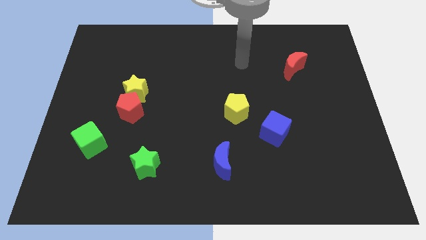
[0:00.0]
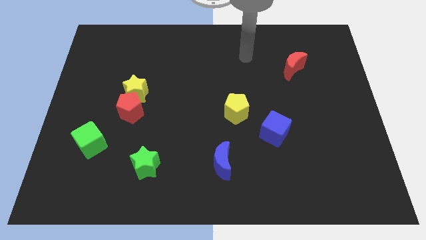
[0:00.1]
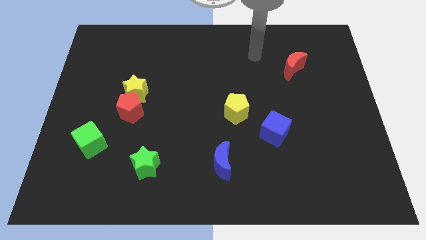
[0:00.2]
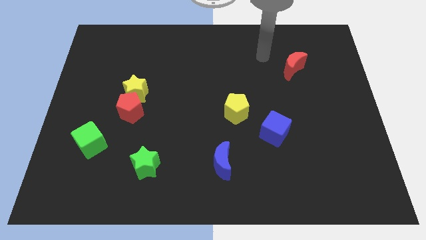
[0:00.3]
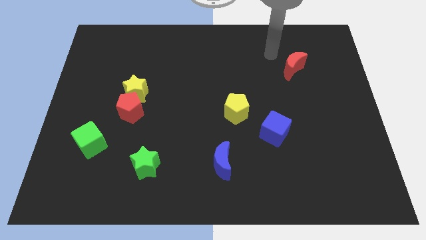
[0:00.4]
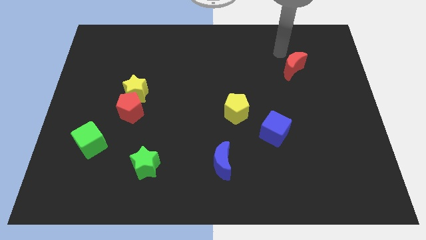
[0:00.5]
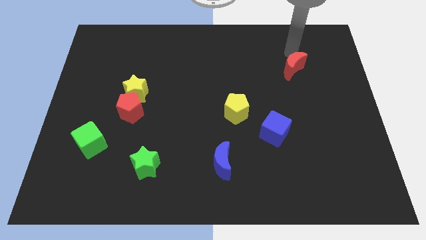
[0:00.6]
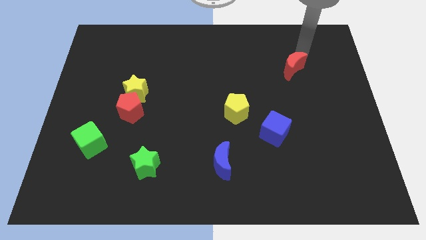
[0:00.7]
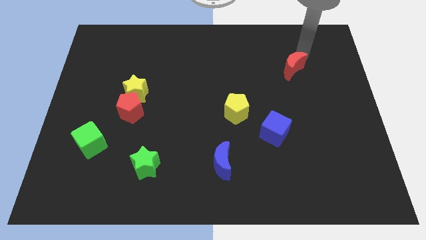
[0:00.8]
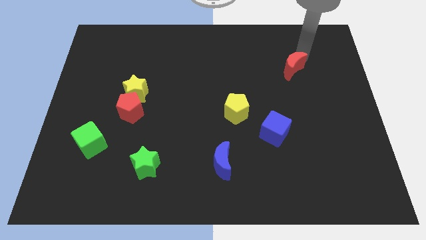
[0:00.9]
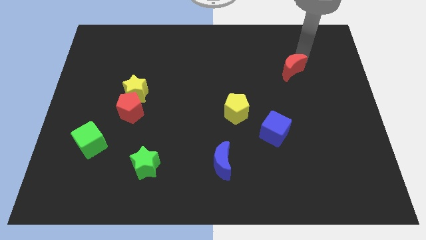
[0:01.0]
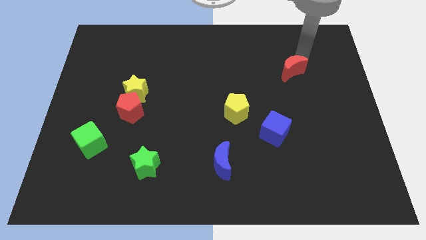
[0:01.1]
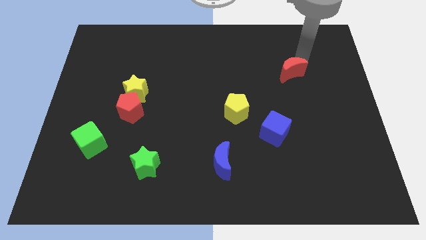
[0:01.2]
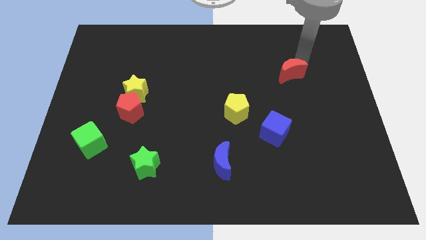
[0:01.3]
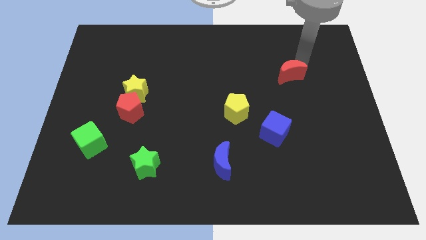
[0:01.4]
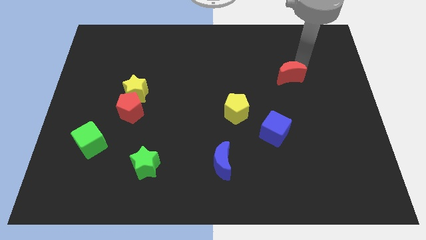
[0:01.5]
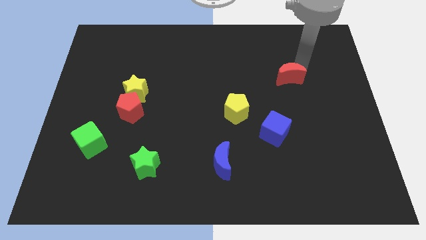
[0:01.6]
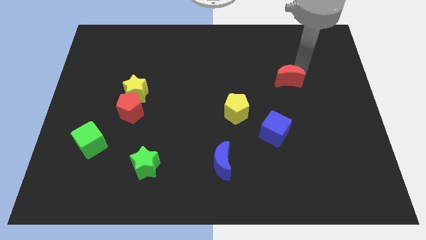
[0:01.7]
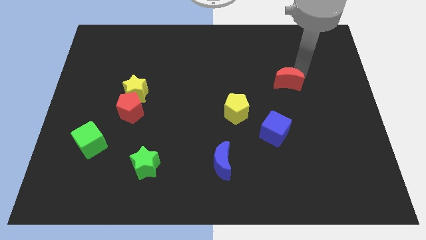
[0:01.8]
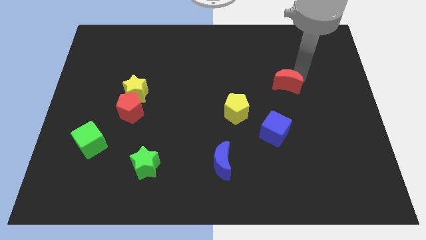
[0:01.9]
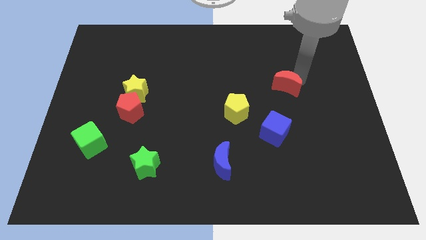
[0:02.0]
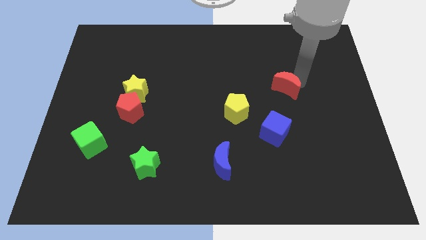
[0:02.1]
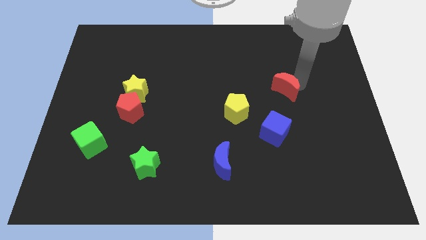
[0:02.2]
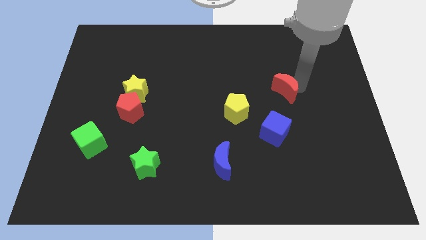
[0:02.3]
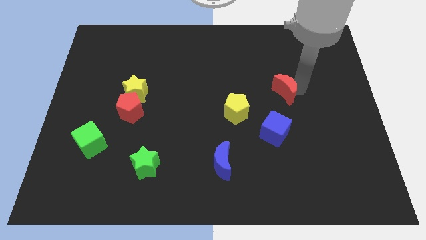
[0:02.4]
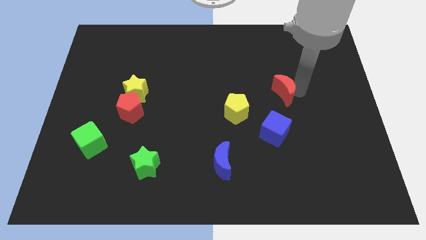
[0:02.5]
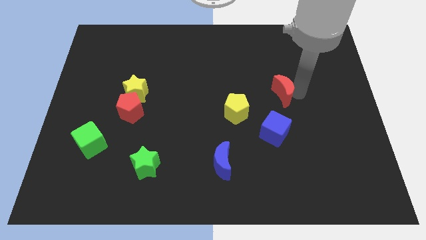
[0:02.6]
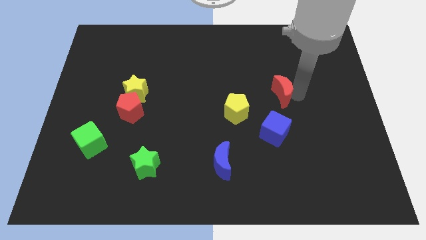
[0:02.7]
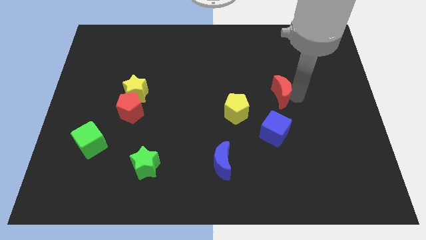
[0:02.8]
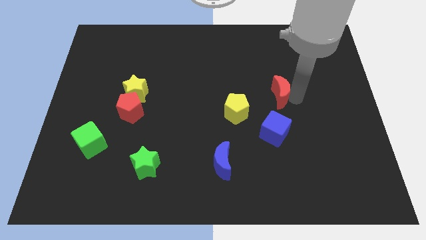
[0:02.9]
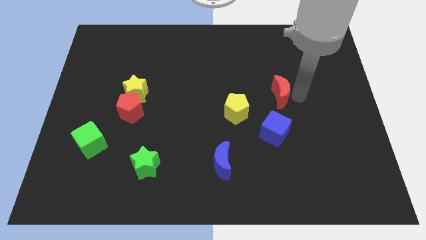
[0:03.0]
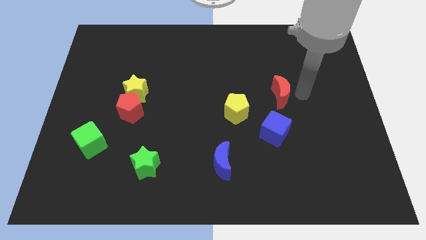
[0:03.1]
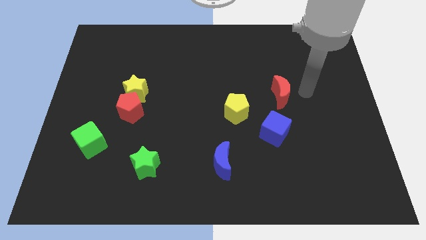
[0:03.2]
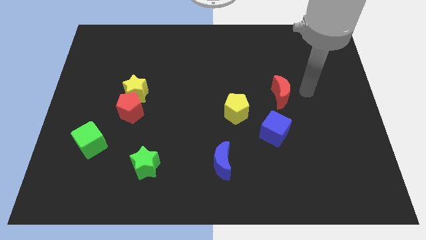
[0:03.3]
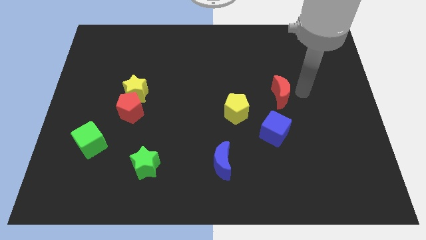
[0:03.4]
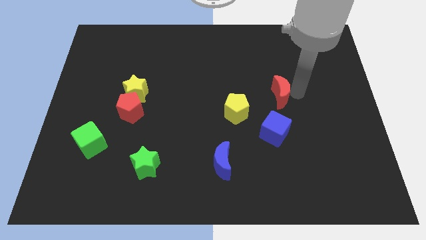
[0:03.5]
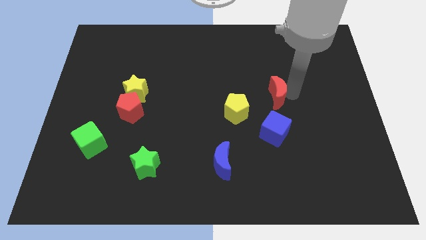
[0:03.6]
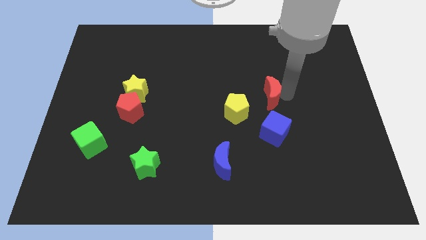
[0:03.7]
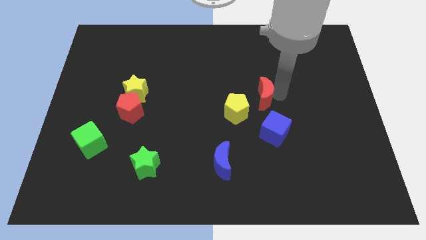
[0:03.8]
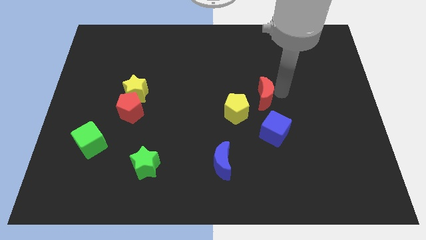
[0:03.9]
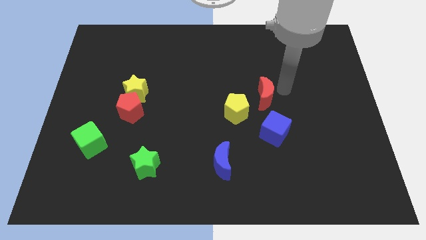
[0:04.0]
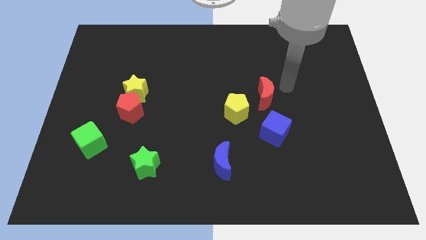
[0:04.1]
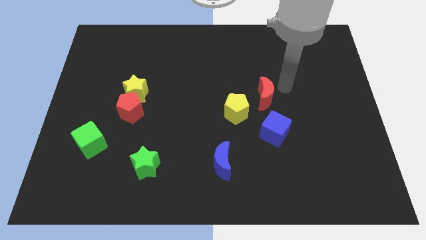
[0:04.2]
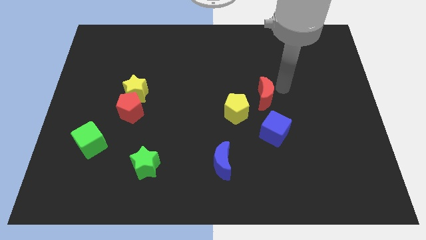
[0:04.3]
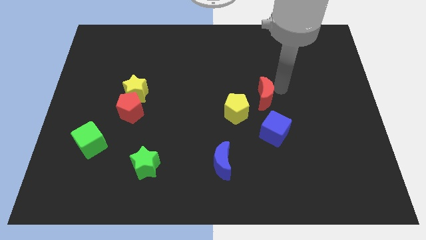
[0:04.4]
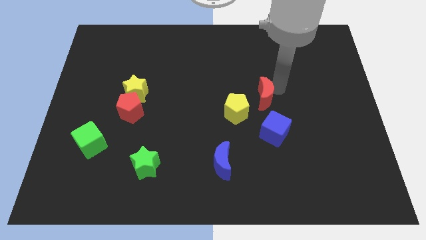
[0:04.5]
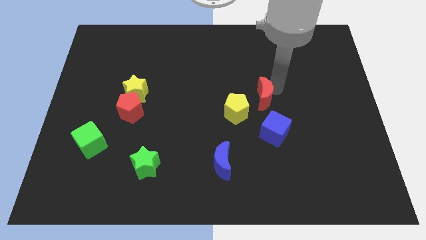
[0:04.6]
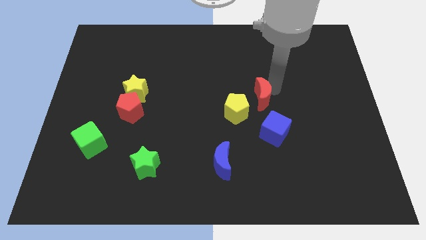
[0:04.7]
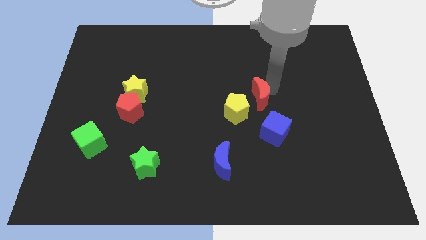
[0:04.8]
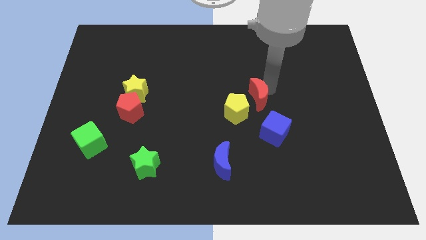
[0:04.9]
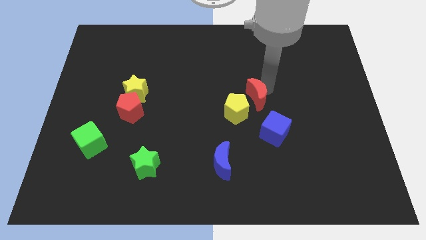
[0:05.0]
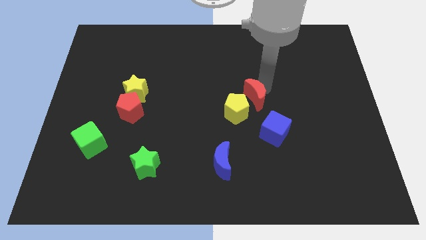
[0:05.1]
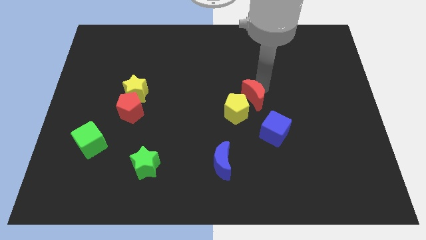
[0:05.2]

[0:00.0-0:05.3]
move the red moon to the yellow pentagon

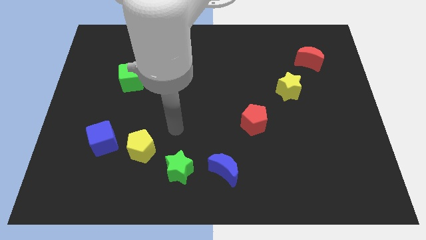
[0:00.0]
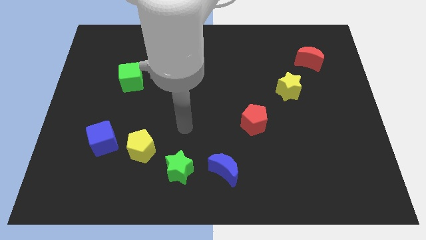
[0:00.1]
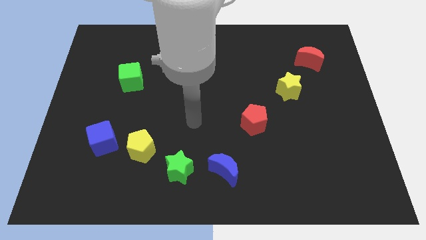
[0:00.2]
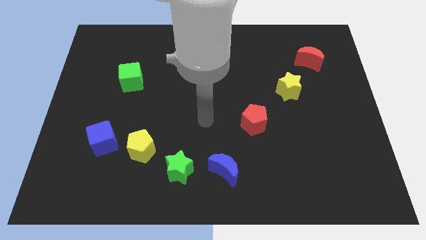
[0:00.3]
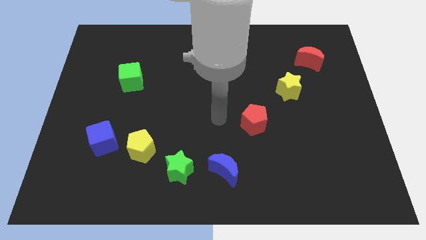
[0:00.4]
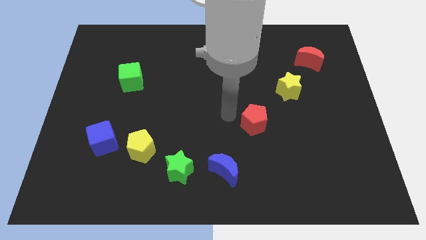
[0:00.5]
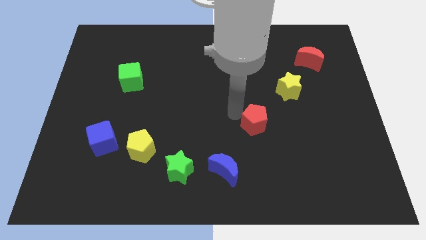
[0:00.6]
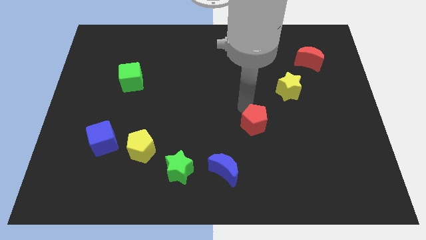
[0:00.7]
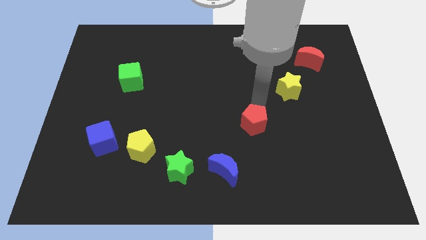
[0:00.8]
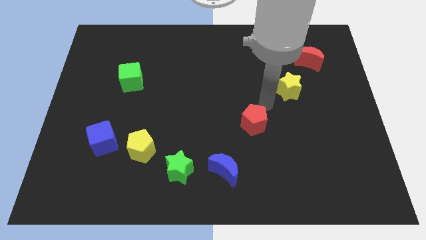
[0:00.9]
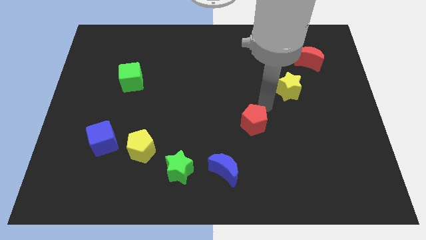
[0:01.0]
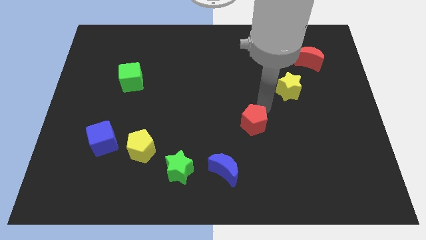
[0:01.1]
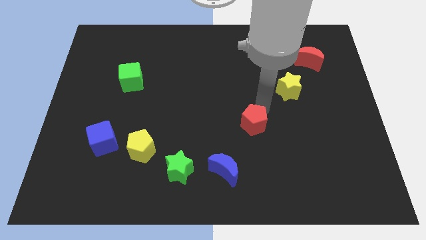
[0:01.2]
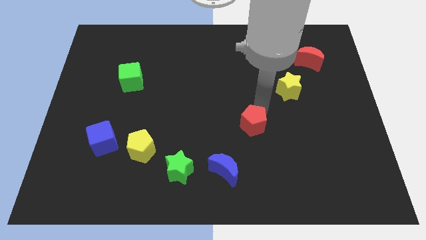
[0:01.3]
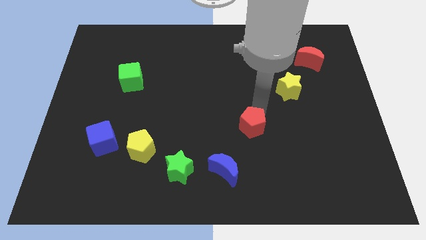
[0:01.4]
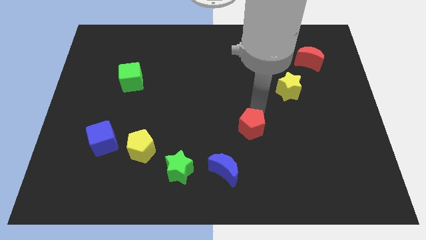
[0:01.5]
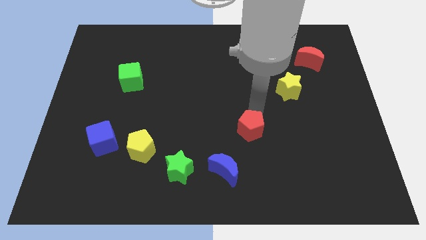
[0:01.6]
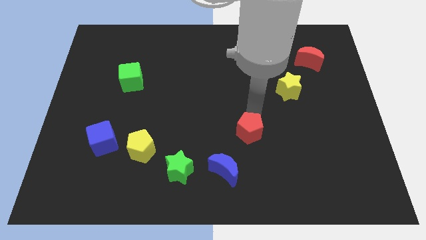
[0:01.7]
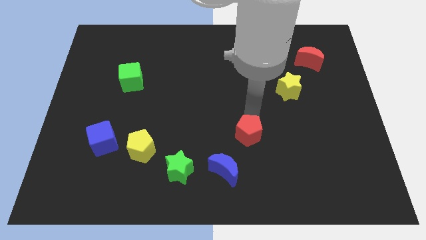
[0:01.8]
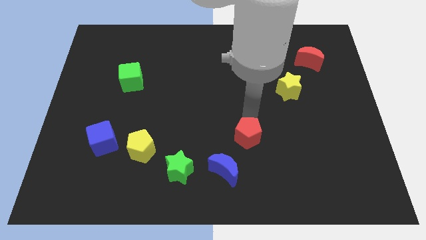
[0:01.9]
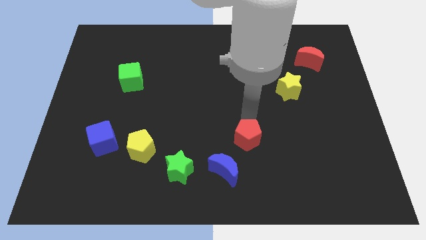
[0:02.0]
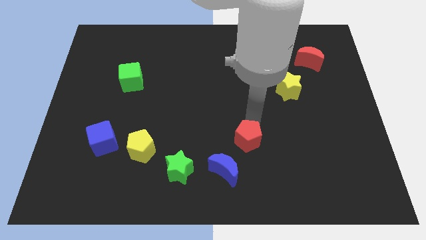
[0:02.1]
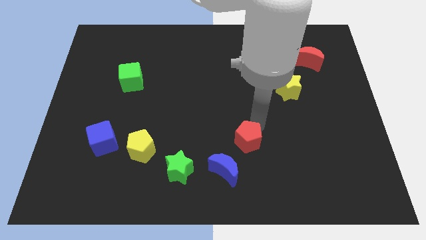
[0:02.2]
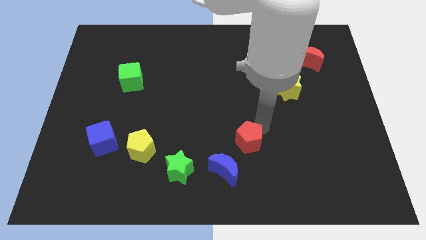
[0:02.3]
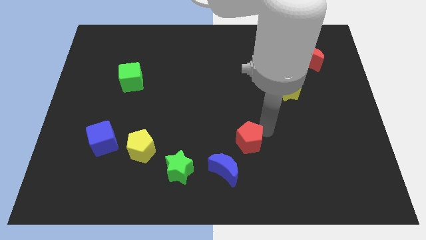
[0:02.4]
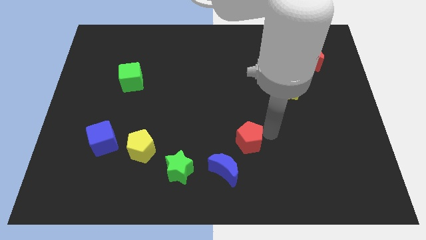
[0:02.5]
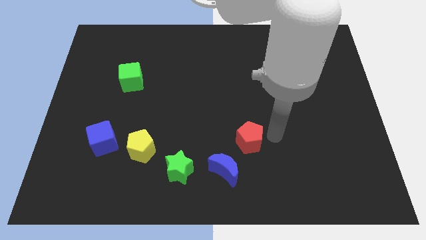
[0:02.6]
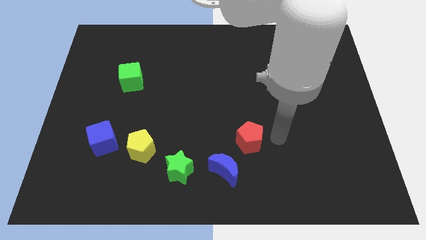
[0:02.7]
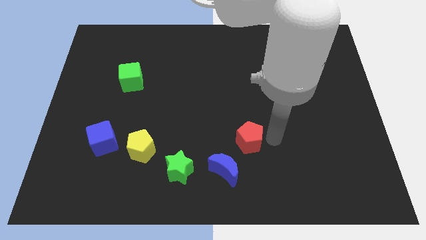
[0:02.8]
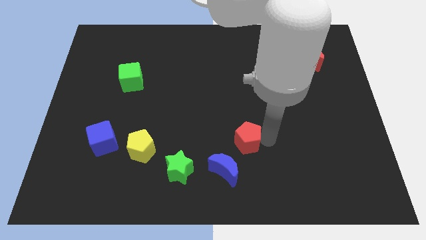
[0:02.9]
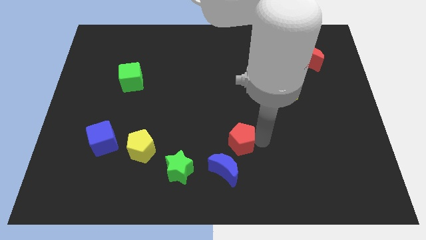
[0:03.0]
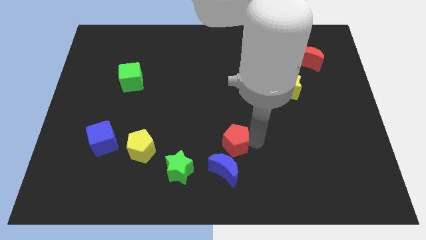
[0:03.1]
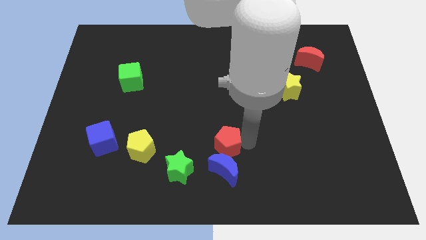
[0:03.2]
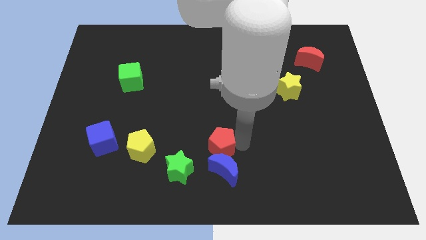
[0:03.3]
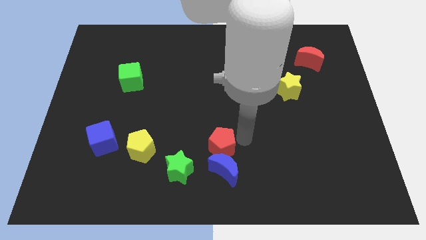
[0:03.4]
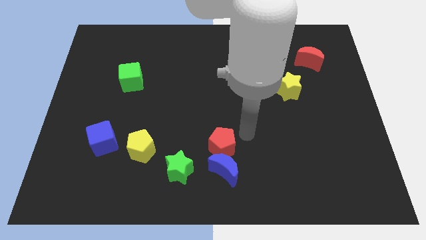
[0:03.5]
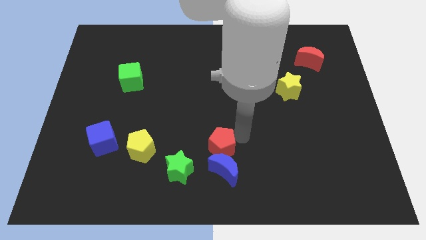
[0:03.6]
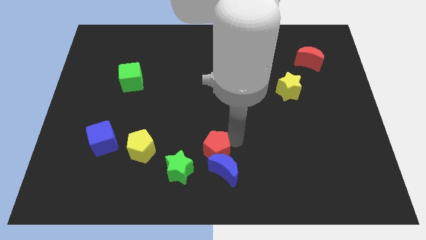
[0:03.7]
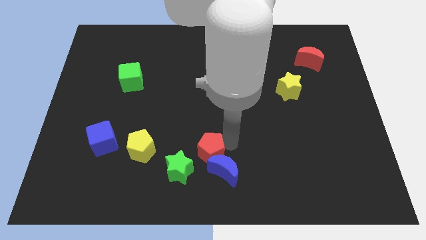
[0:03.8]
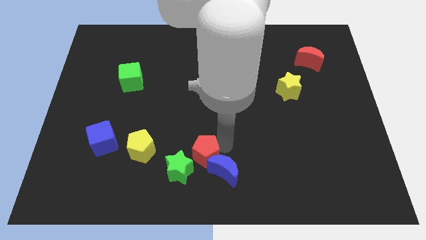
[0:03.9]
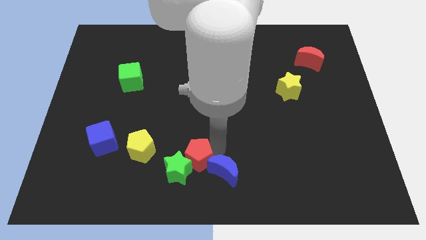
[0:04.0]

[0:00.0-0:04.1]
put the red pentagon to the green star
